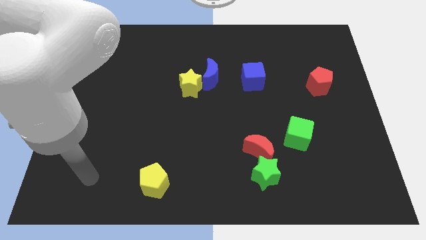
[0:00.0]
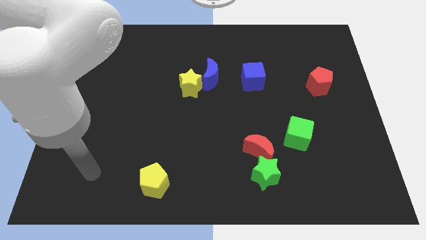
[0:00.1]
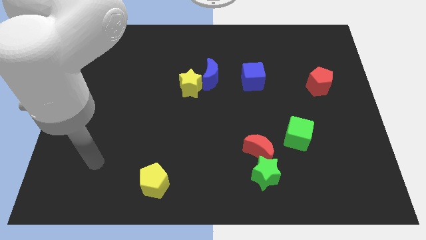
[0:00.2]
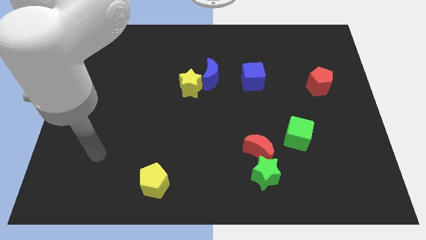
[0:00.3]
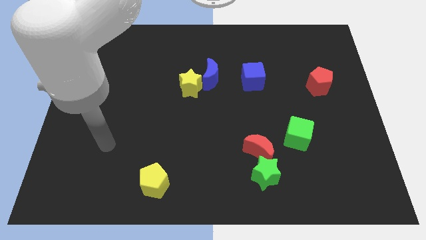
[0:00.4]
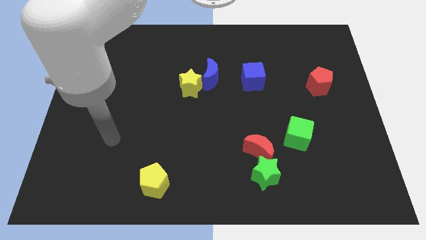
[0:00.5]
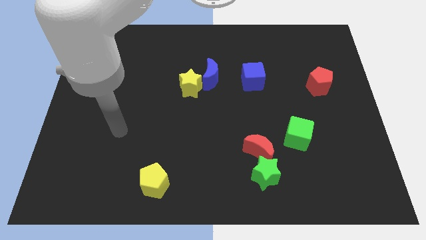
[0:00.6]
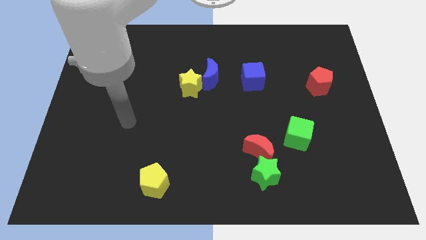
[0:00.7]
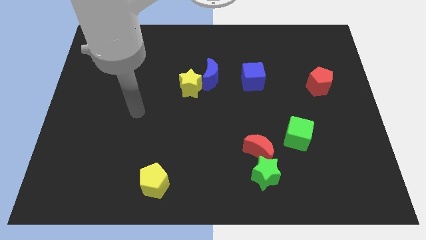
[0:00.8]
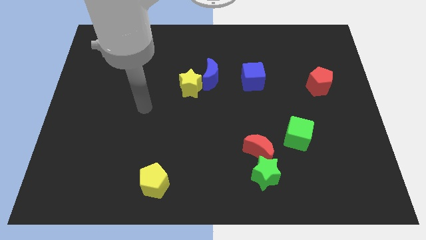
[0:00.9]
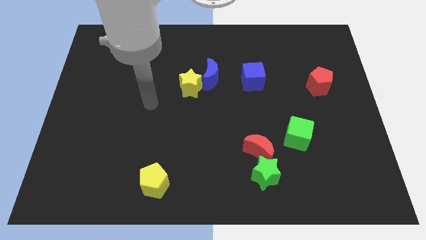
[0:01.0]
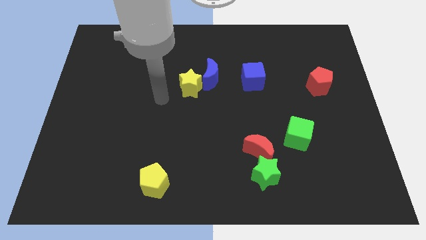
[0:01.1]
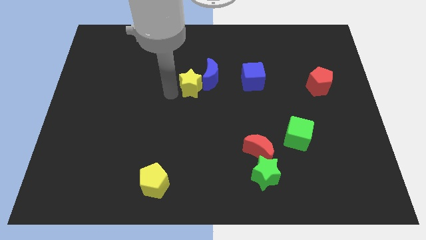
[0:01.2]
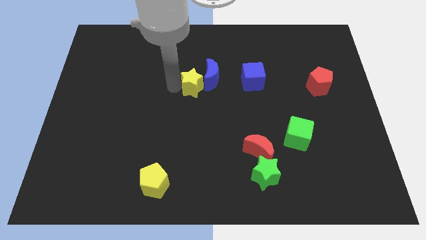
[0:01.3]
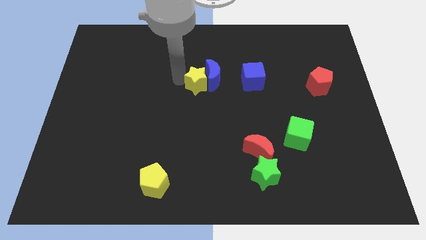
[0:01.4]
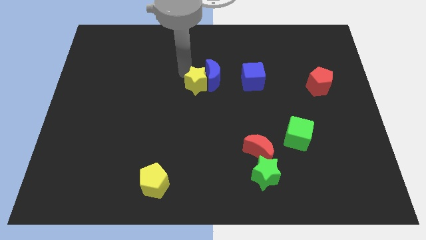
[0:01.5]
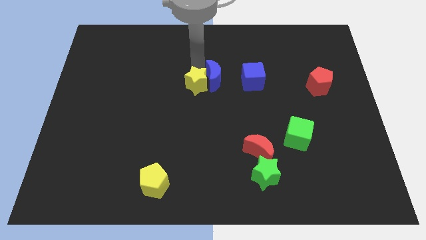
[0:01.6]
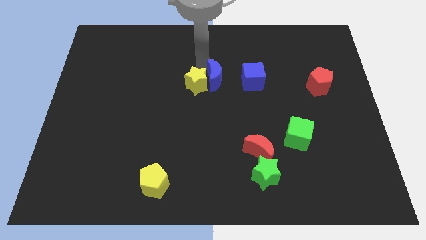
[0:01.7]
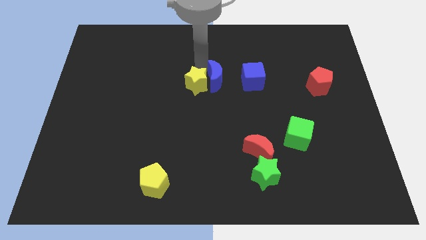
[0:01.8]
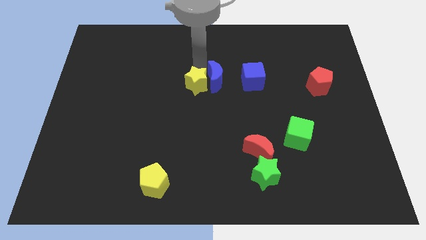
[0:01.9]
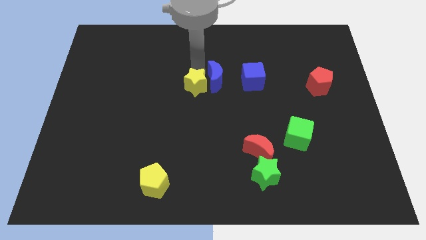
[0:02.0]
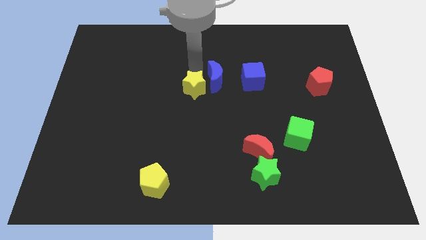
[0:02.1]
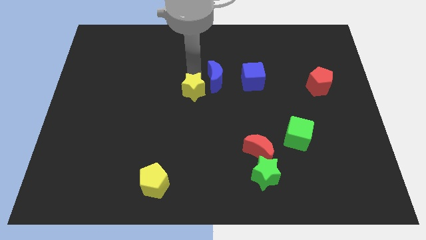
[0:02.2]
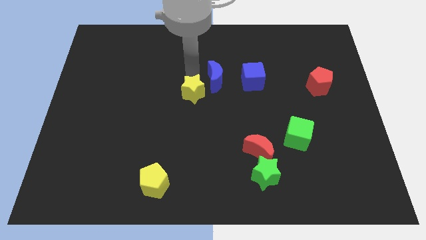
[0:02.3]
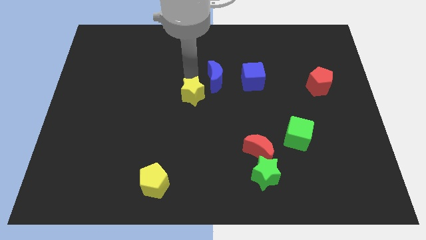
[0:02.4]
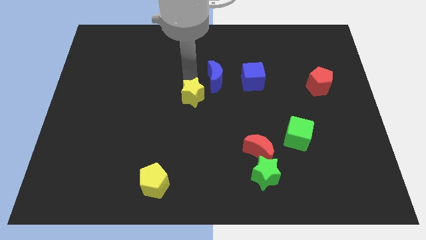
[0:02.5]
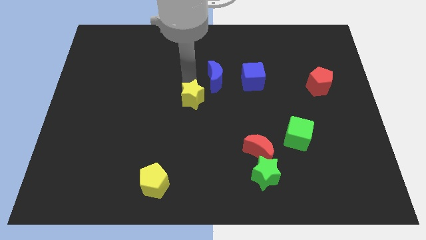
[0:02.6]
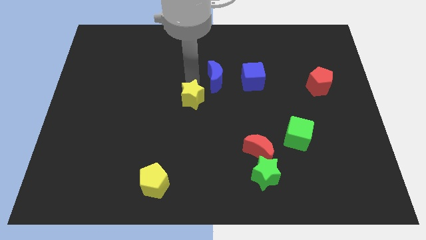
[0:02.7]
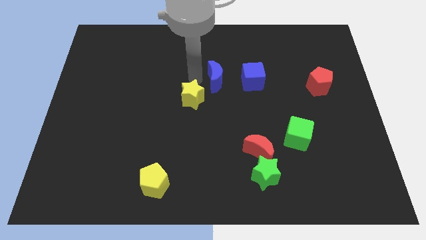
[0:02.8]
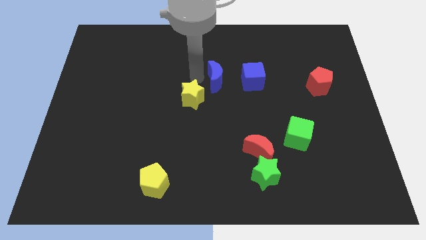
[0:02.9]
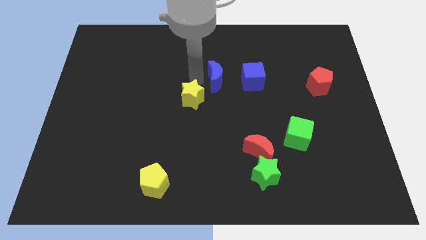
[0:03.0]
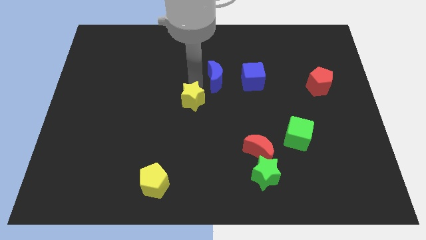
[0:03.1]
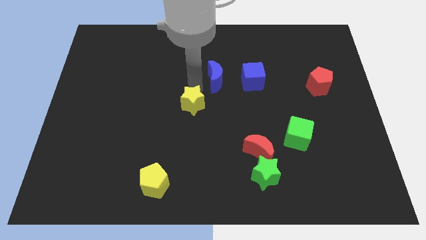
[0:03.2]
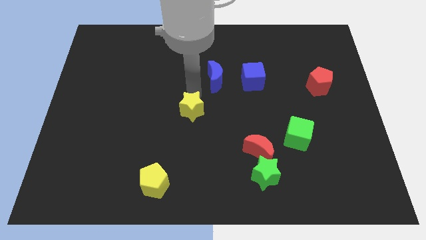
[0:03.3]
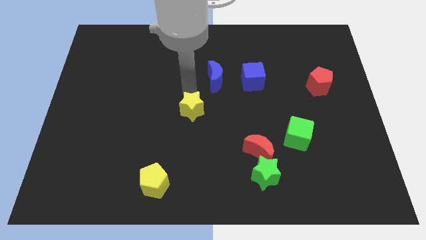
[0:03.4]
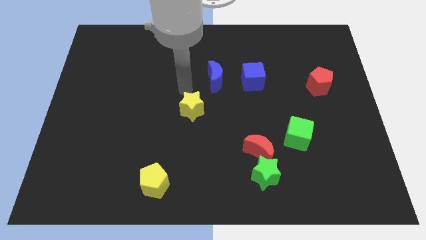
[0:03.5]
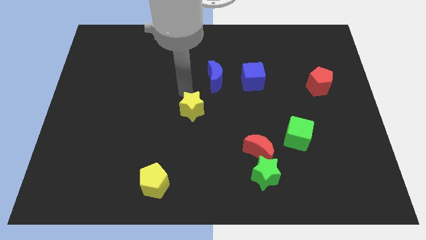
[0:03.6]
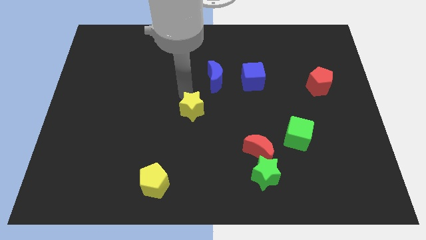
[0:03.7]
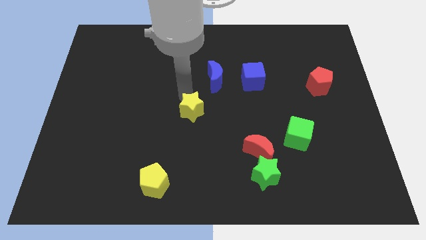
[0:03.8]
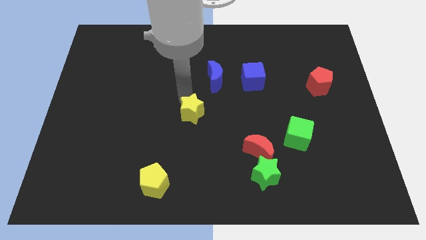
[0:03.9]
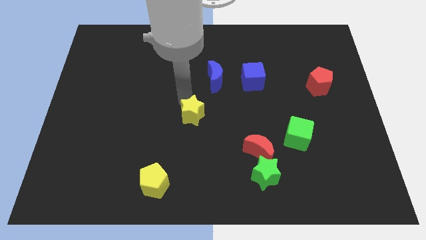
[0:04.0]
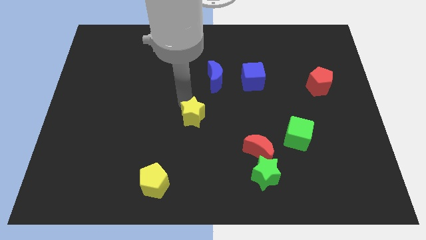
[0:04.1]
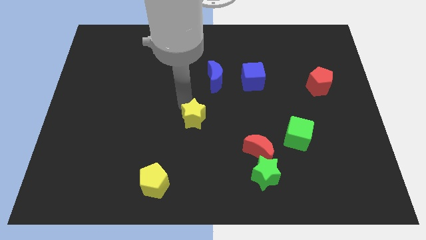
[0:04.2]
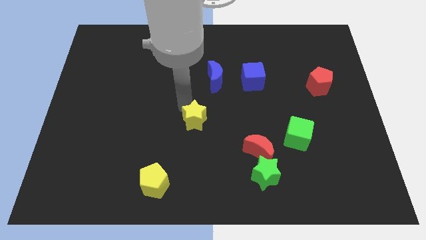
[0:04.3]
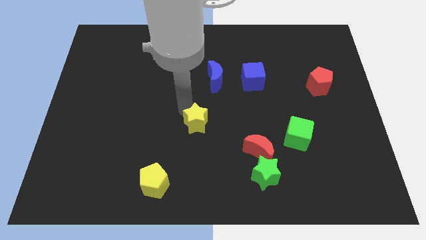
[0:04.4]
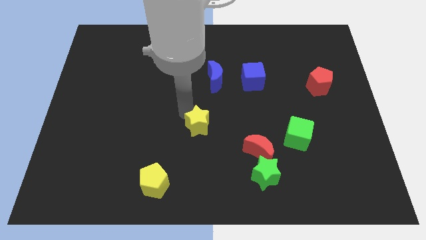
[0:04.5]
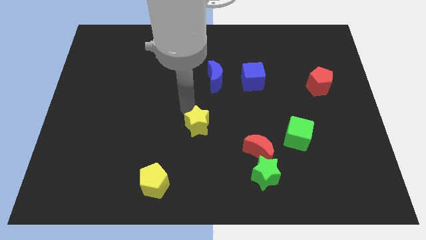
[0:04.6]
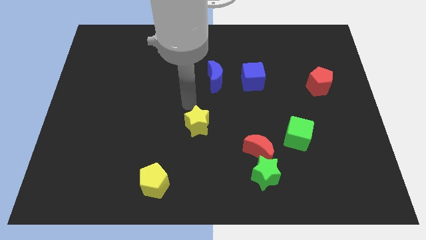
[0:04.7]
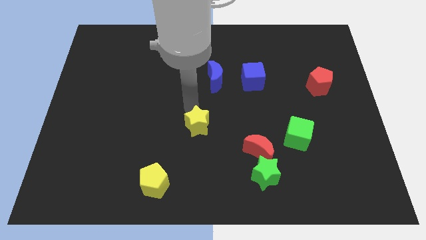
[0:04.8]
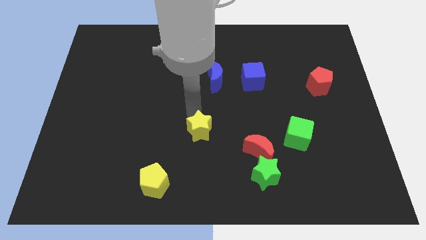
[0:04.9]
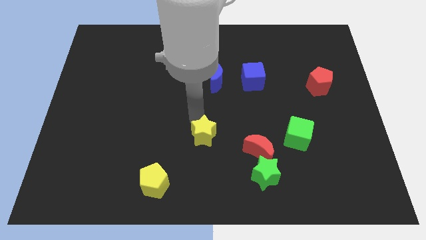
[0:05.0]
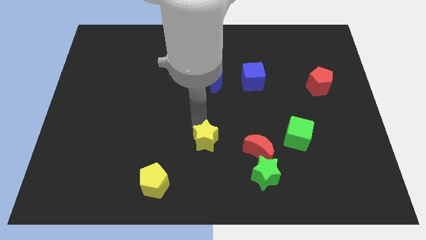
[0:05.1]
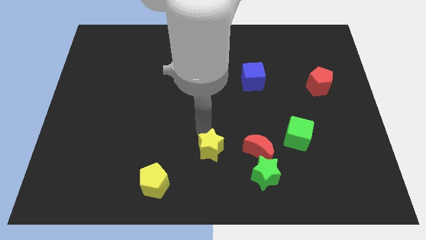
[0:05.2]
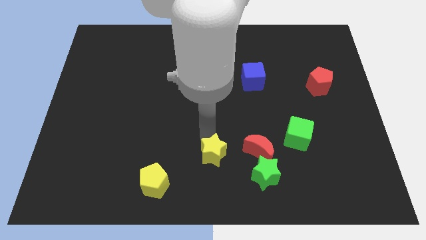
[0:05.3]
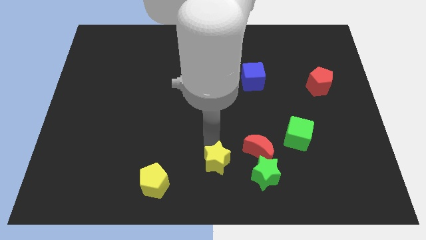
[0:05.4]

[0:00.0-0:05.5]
move the yellow star left of the green star

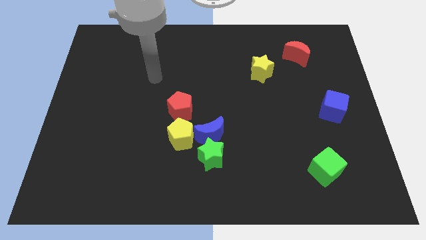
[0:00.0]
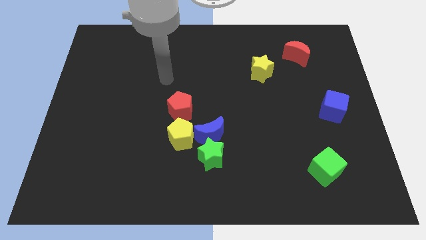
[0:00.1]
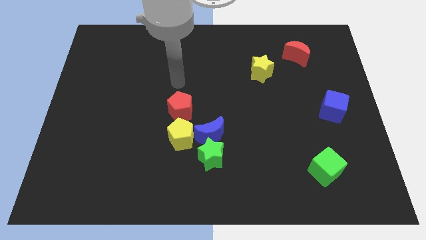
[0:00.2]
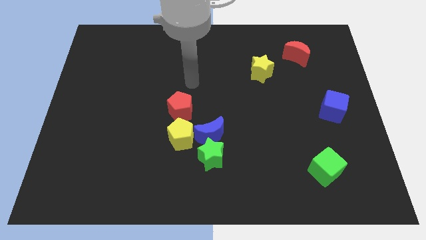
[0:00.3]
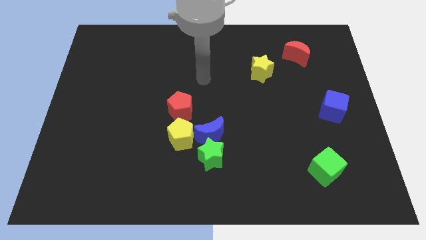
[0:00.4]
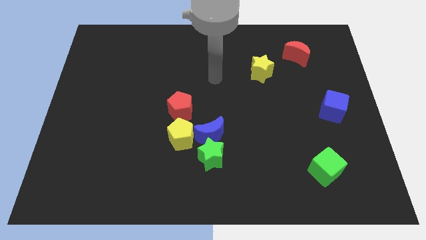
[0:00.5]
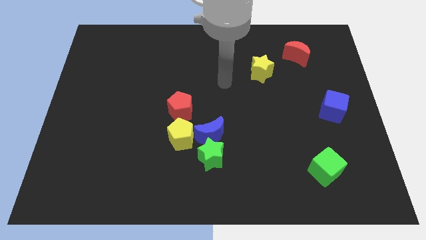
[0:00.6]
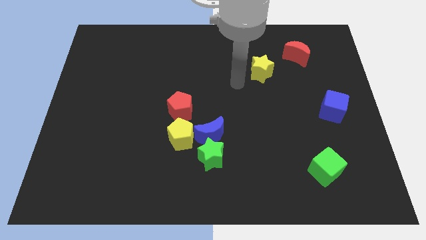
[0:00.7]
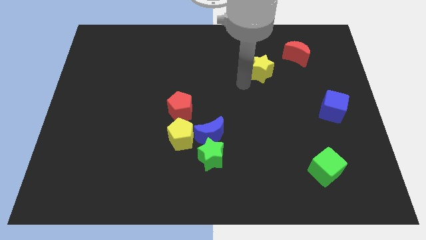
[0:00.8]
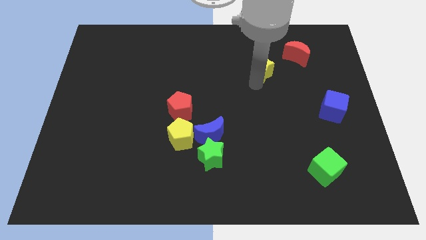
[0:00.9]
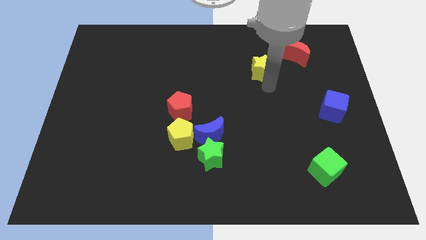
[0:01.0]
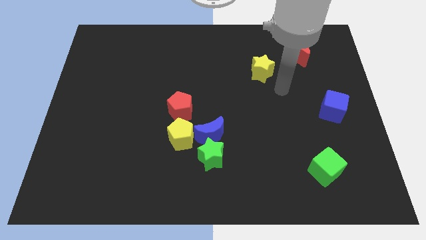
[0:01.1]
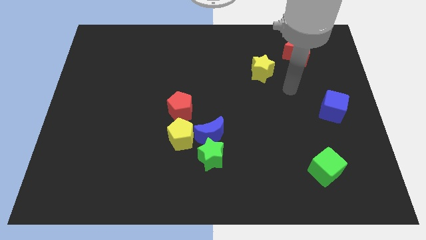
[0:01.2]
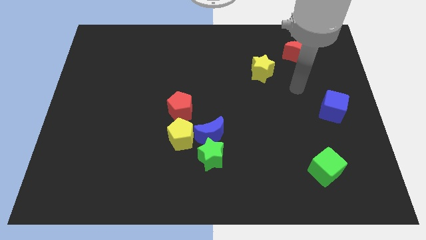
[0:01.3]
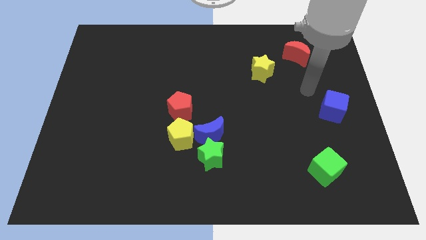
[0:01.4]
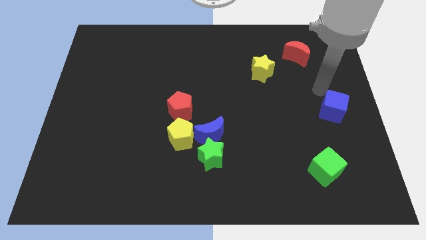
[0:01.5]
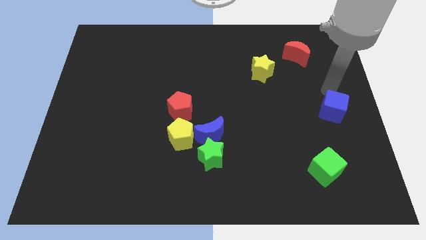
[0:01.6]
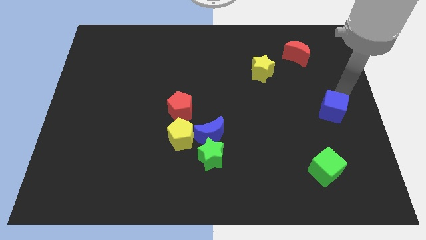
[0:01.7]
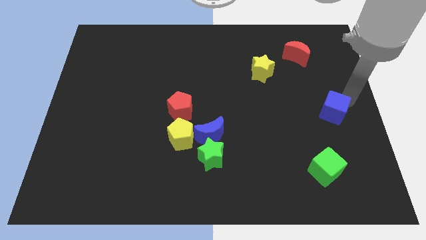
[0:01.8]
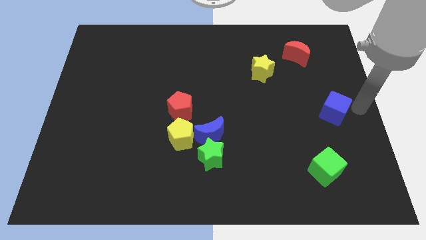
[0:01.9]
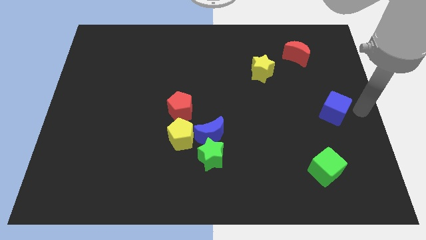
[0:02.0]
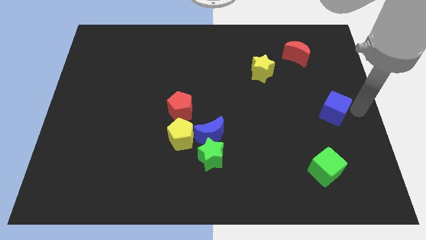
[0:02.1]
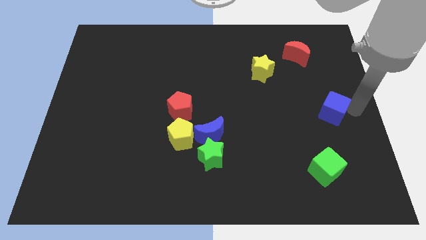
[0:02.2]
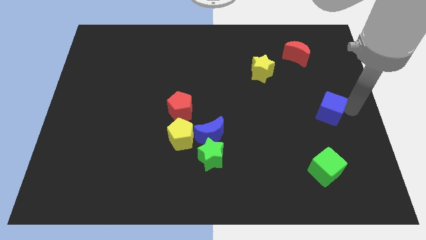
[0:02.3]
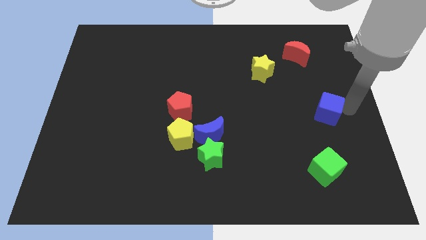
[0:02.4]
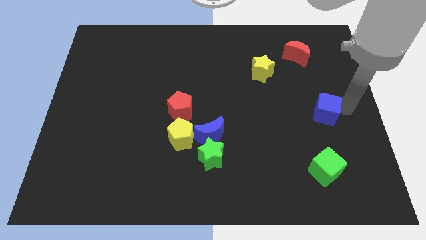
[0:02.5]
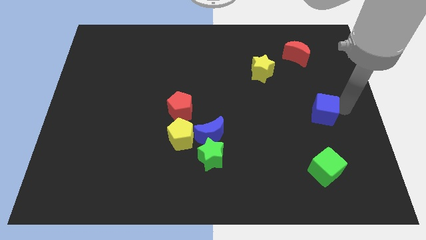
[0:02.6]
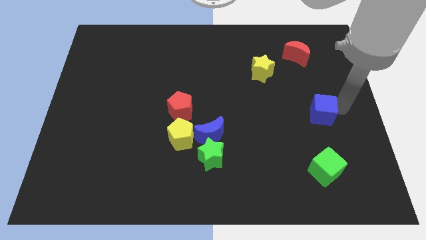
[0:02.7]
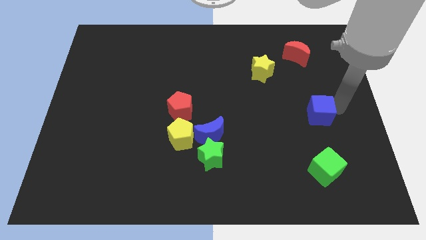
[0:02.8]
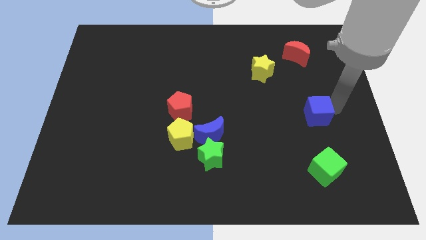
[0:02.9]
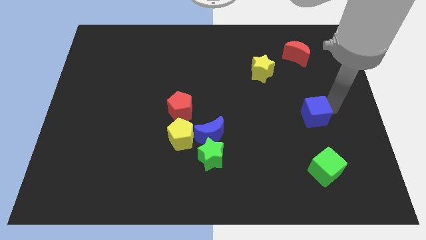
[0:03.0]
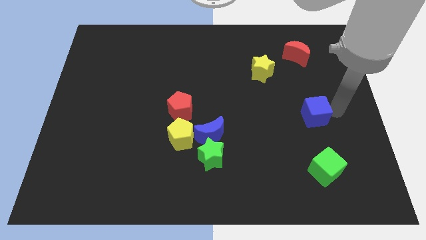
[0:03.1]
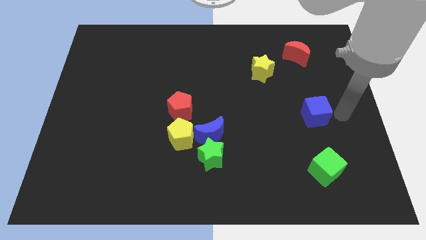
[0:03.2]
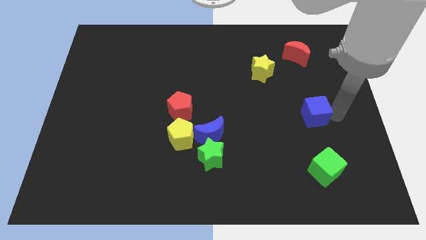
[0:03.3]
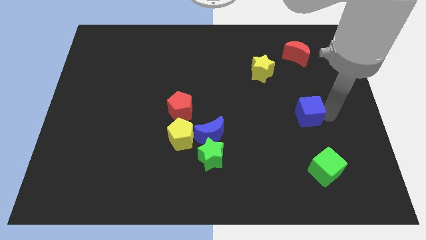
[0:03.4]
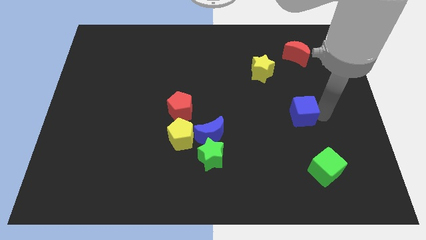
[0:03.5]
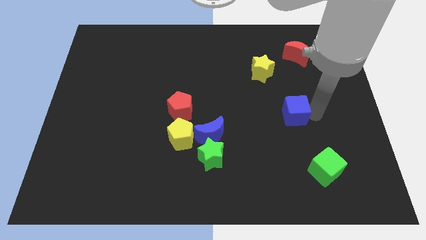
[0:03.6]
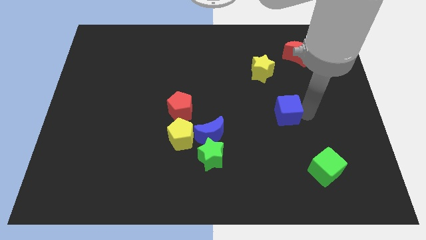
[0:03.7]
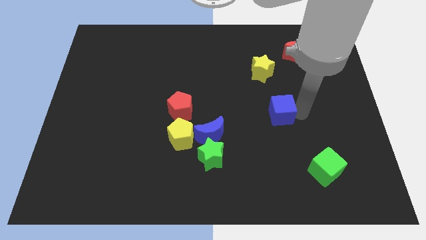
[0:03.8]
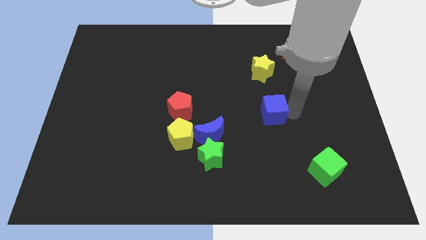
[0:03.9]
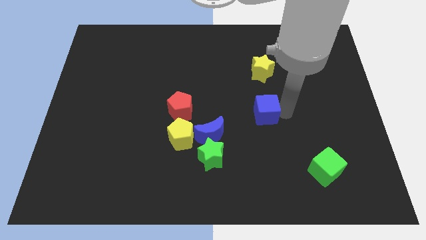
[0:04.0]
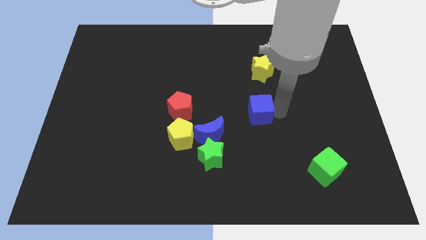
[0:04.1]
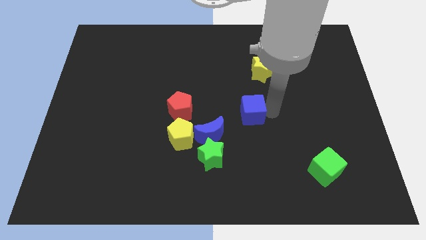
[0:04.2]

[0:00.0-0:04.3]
slide the blue cube diagonally up and to the right of the blue moon
